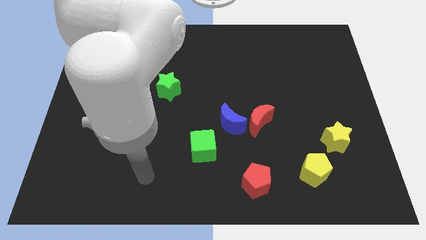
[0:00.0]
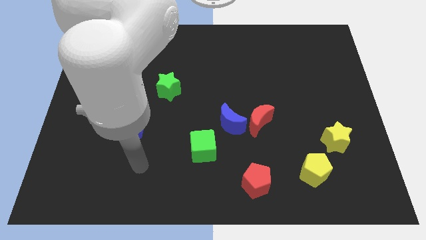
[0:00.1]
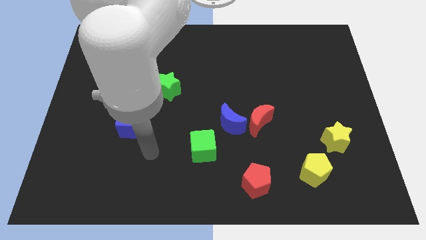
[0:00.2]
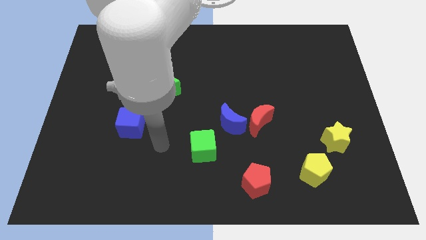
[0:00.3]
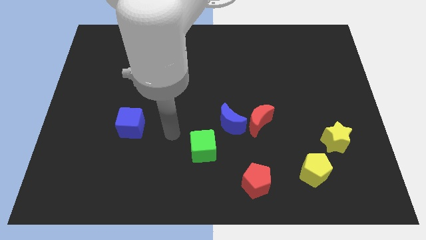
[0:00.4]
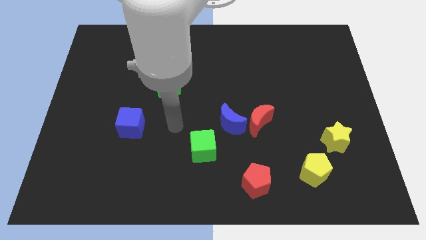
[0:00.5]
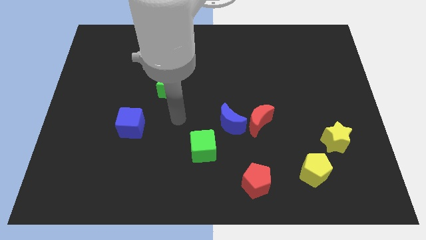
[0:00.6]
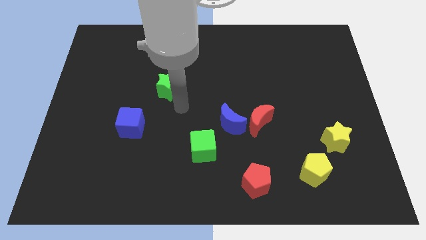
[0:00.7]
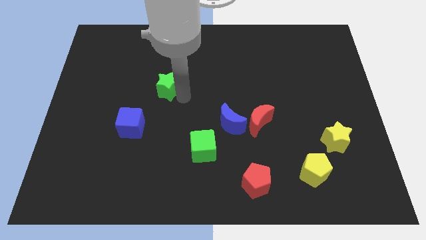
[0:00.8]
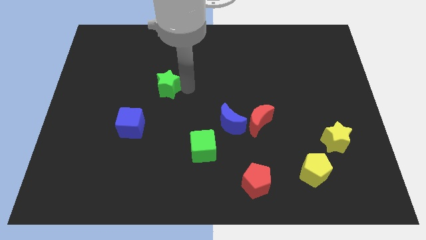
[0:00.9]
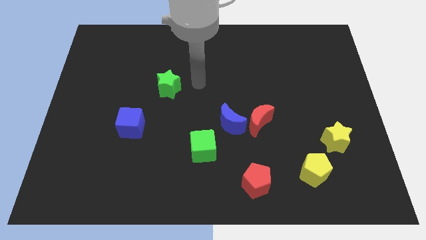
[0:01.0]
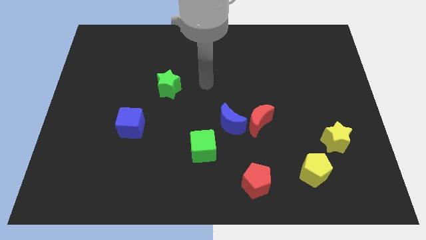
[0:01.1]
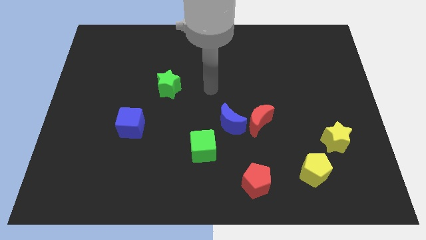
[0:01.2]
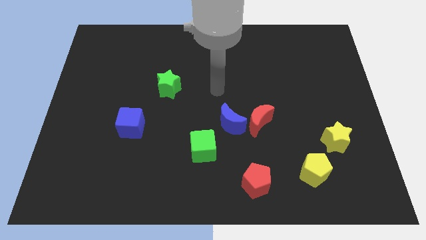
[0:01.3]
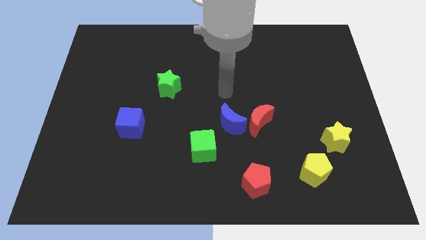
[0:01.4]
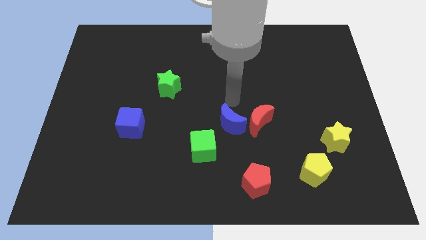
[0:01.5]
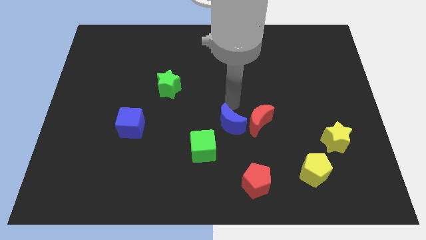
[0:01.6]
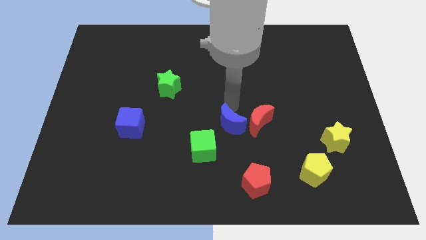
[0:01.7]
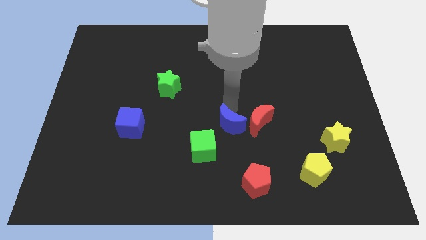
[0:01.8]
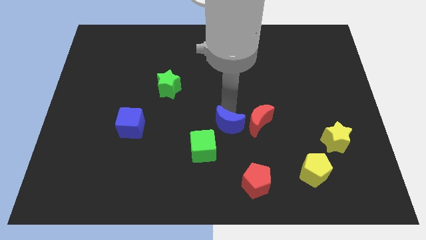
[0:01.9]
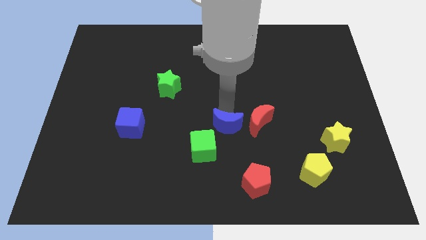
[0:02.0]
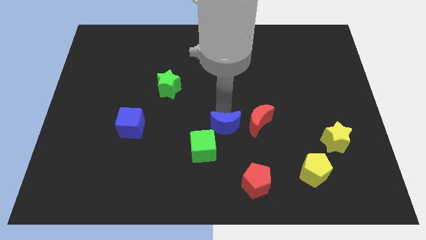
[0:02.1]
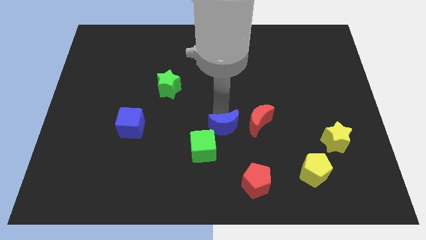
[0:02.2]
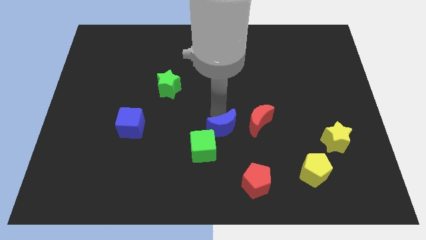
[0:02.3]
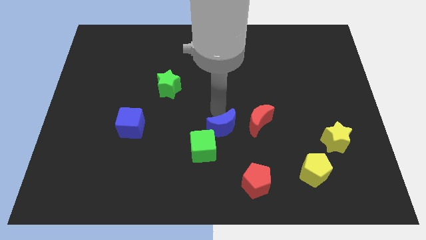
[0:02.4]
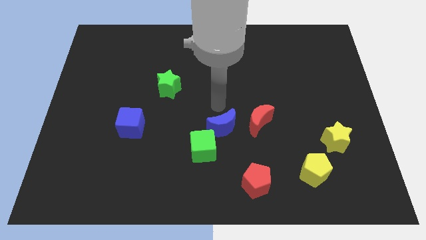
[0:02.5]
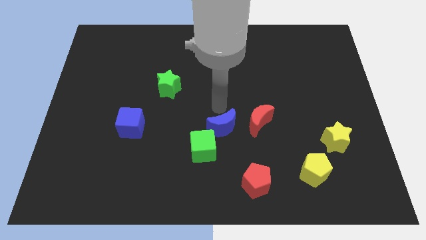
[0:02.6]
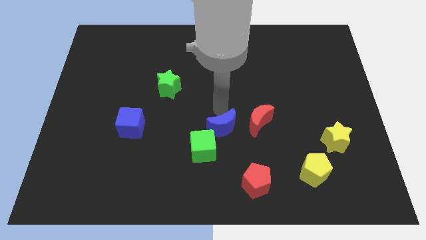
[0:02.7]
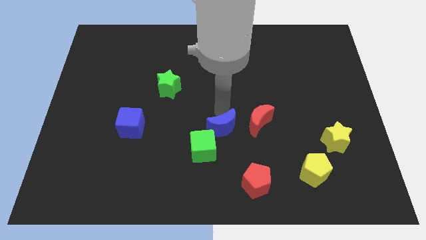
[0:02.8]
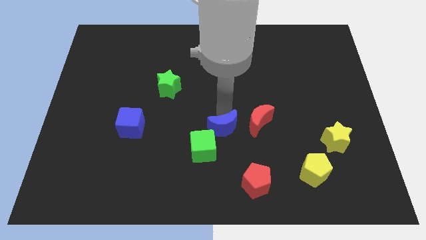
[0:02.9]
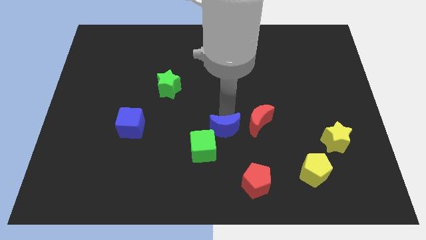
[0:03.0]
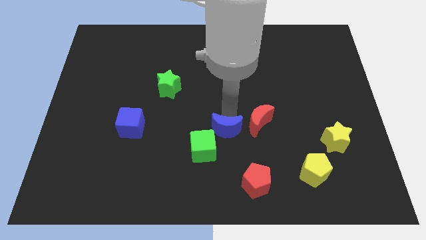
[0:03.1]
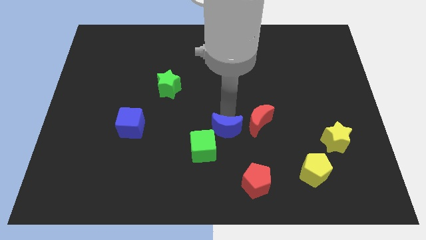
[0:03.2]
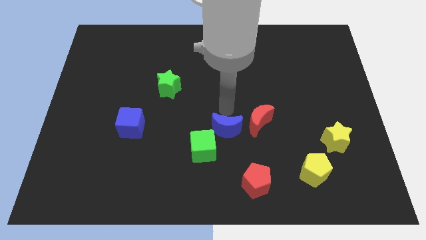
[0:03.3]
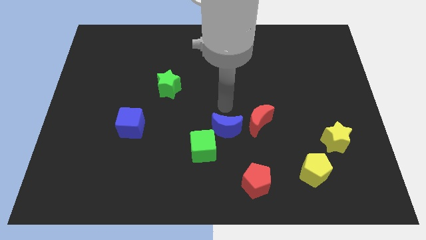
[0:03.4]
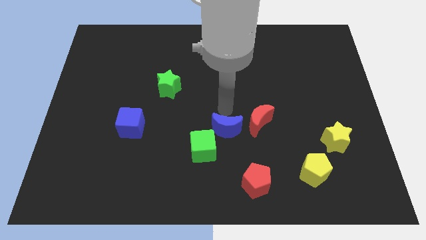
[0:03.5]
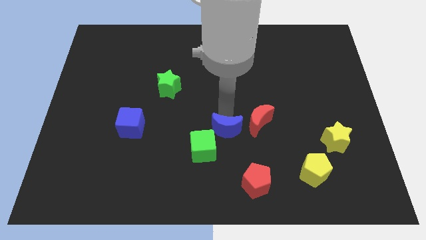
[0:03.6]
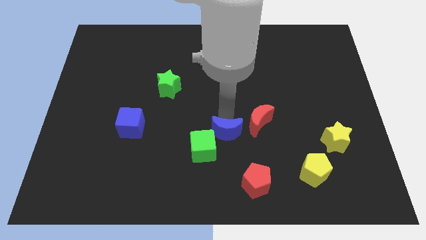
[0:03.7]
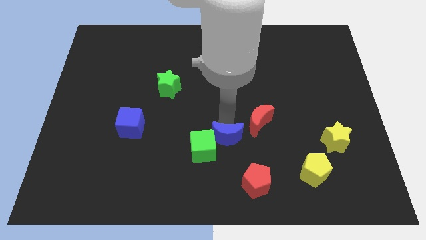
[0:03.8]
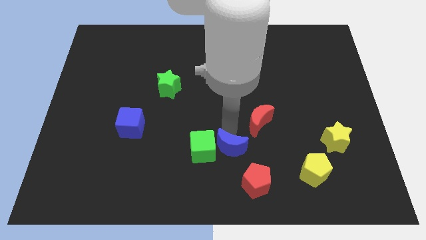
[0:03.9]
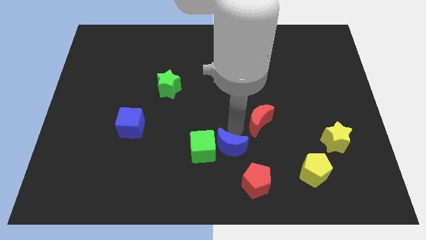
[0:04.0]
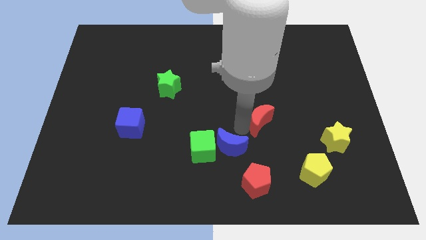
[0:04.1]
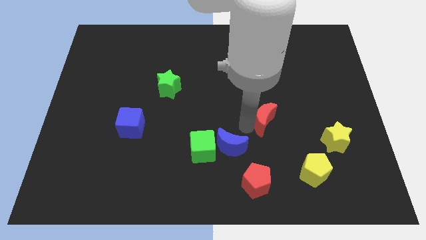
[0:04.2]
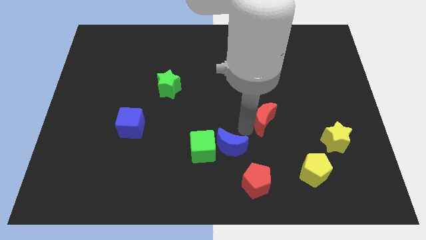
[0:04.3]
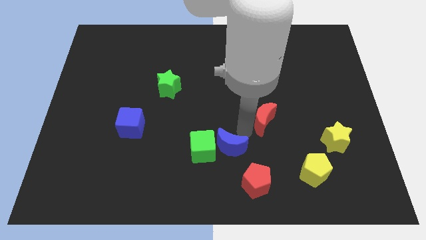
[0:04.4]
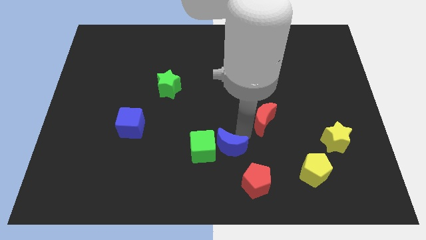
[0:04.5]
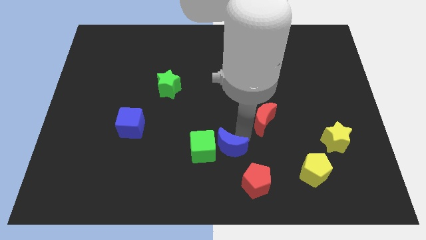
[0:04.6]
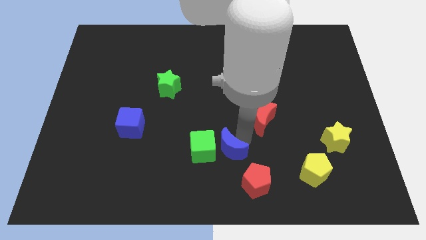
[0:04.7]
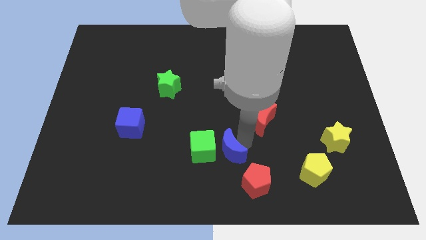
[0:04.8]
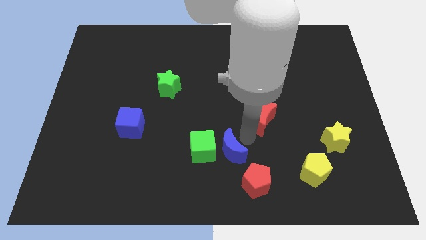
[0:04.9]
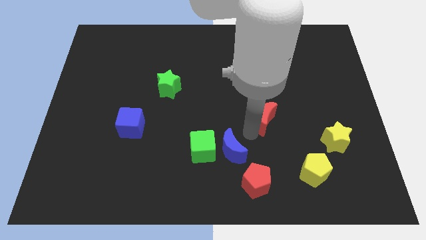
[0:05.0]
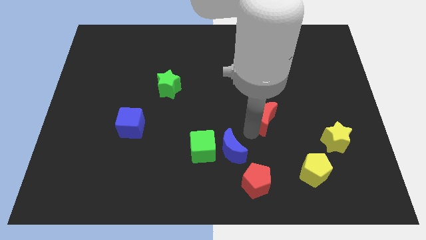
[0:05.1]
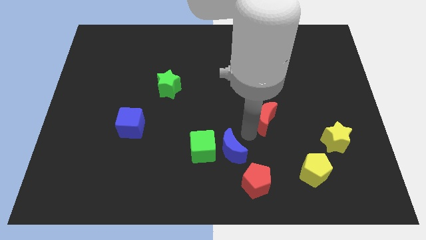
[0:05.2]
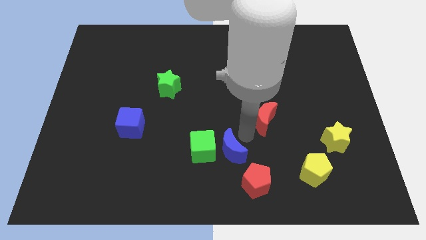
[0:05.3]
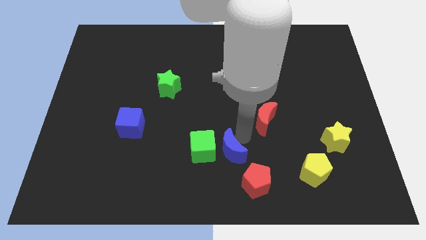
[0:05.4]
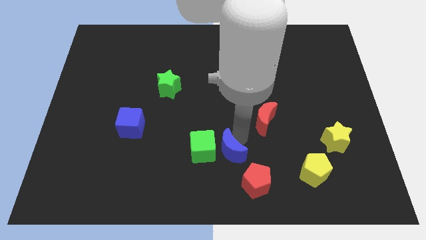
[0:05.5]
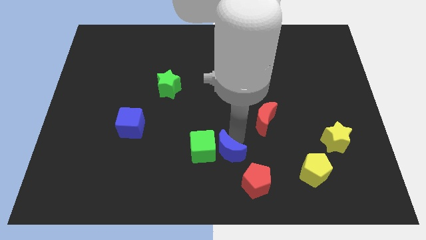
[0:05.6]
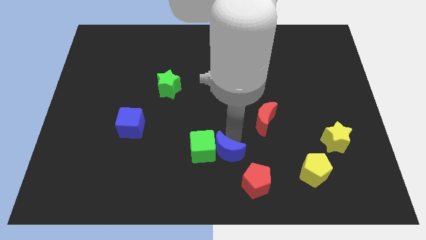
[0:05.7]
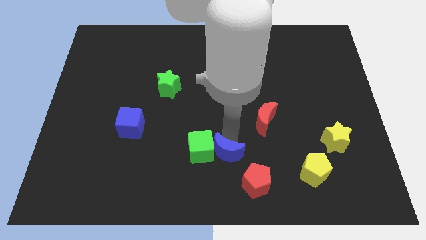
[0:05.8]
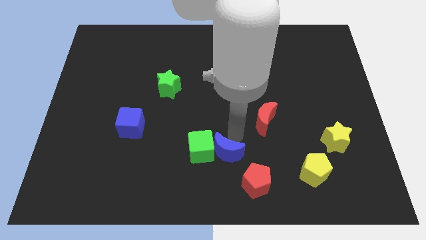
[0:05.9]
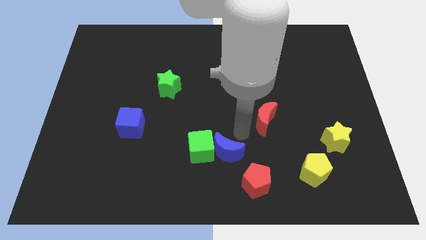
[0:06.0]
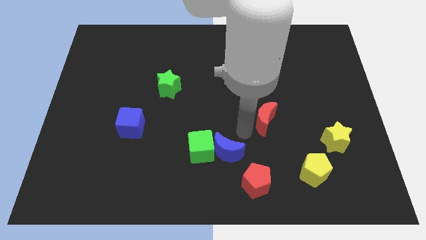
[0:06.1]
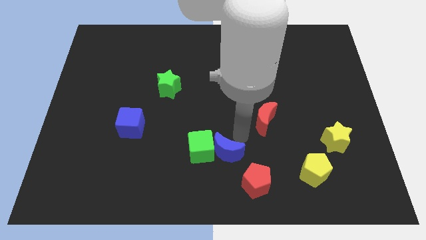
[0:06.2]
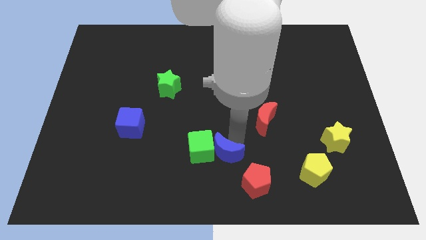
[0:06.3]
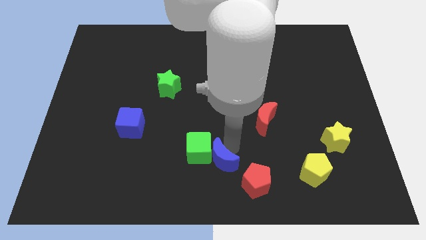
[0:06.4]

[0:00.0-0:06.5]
slightly slide the blue moon diagonally downwards and to the left

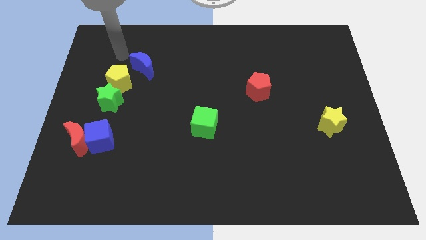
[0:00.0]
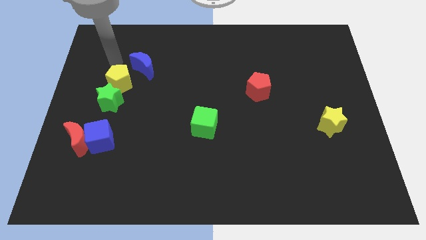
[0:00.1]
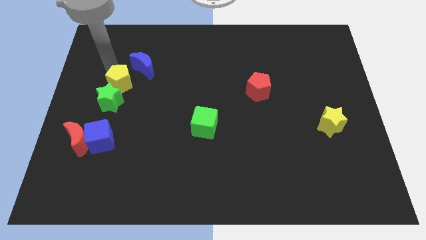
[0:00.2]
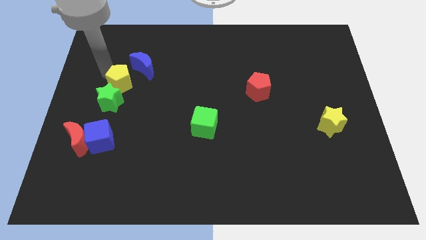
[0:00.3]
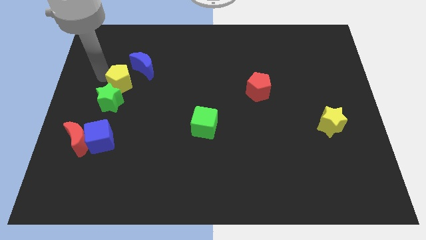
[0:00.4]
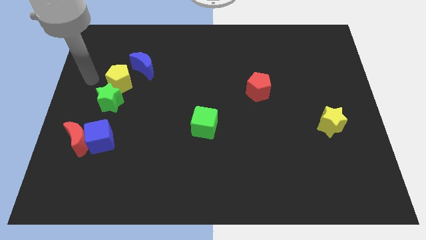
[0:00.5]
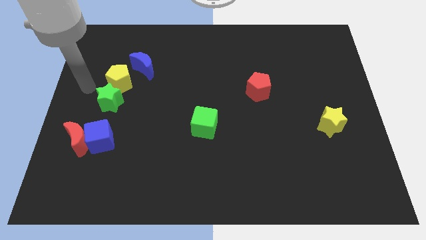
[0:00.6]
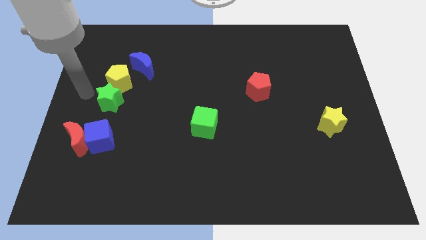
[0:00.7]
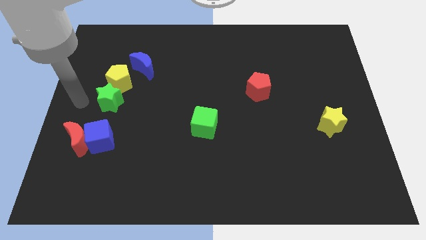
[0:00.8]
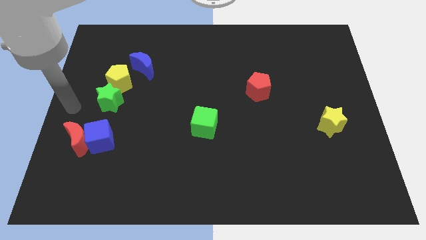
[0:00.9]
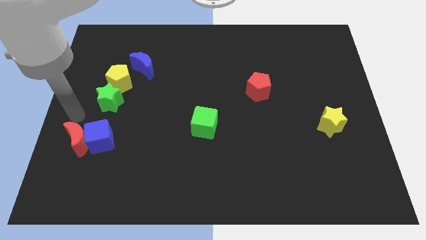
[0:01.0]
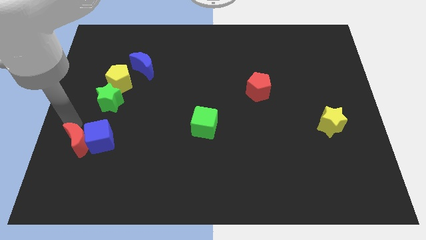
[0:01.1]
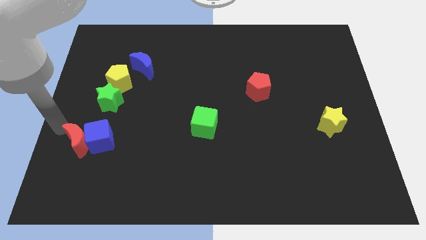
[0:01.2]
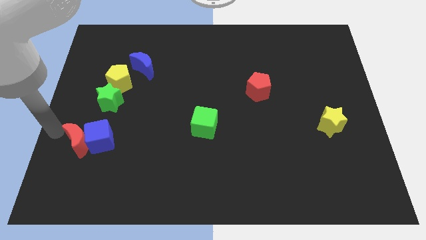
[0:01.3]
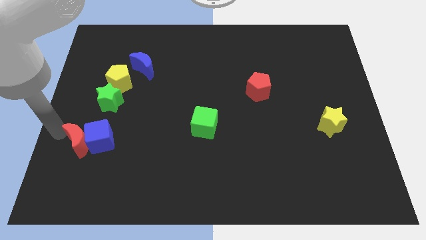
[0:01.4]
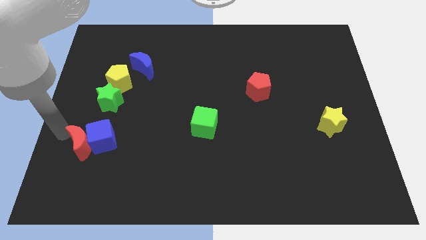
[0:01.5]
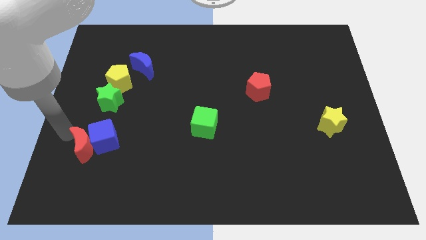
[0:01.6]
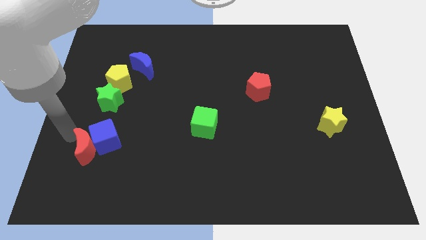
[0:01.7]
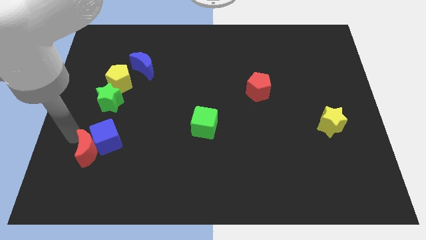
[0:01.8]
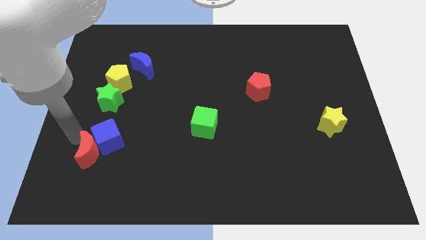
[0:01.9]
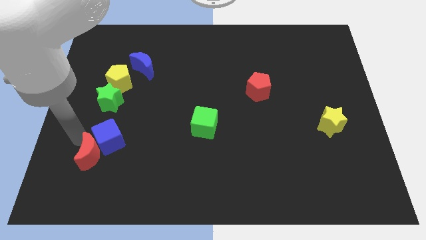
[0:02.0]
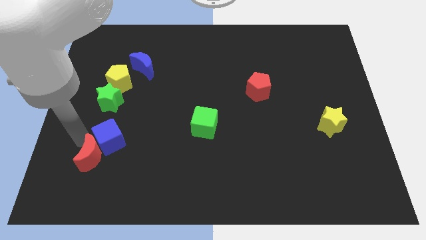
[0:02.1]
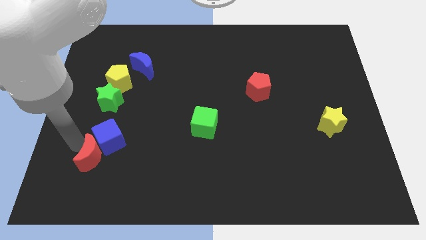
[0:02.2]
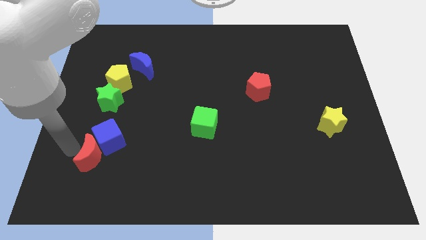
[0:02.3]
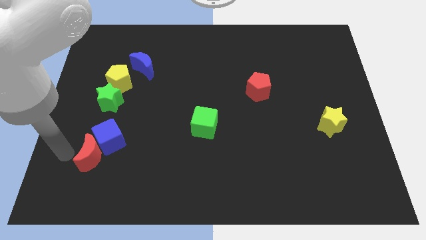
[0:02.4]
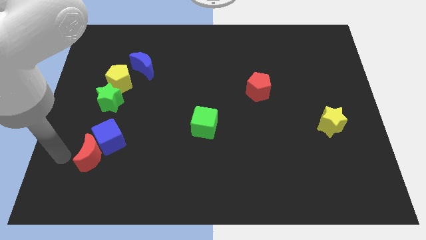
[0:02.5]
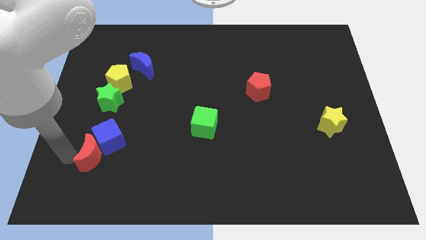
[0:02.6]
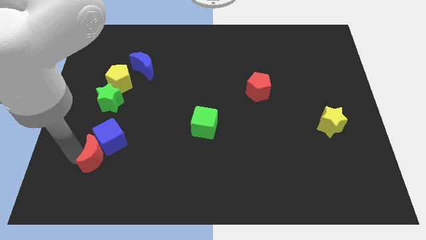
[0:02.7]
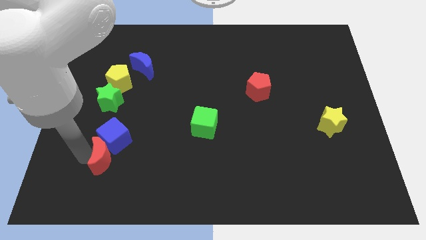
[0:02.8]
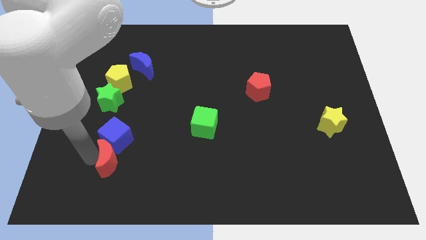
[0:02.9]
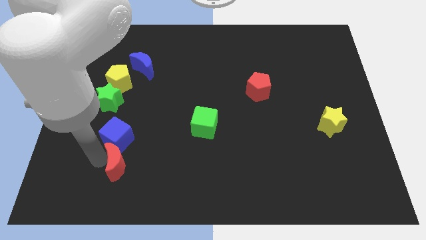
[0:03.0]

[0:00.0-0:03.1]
push the red moon to the right slightly
